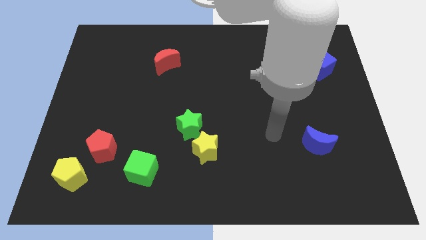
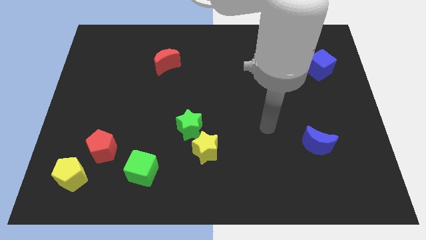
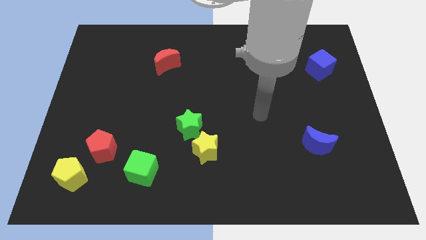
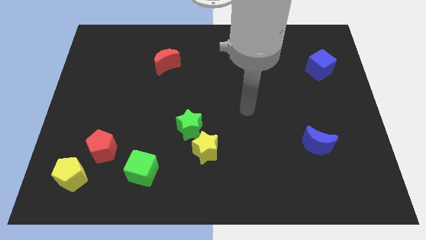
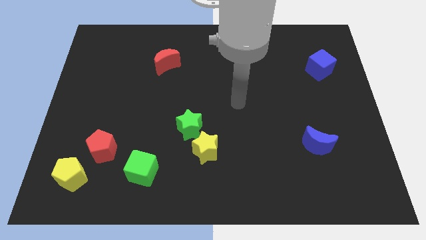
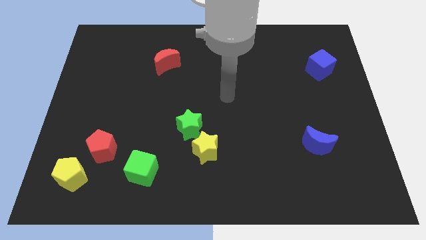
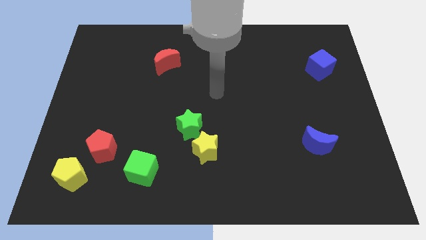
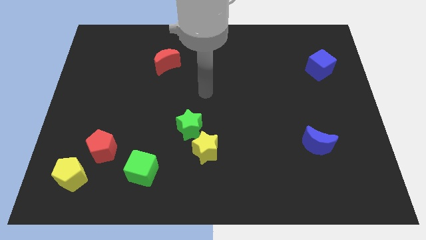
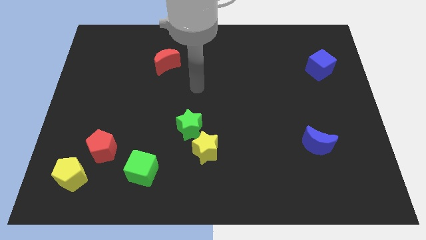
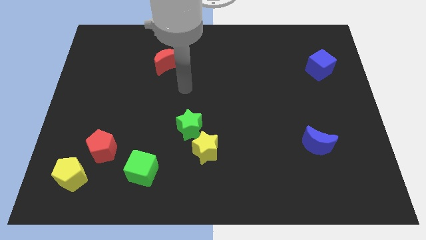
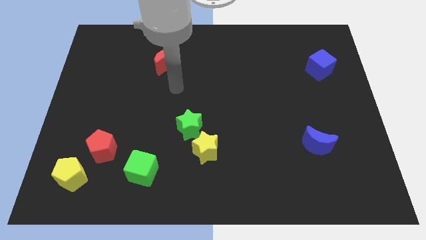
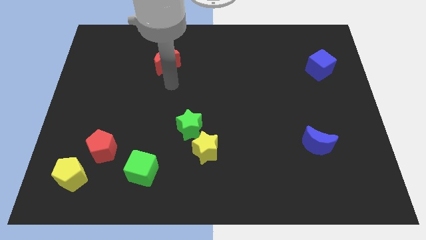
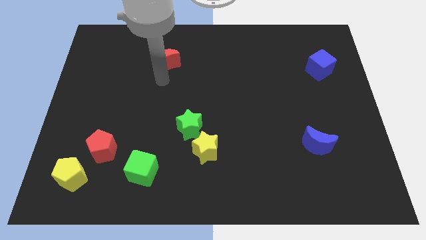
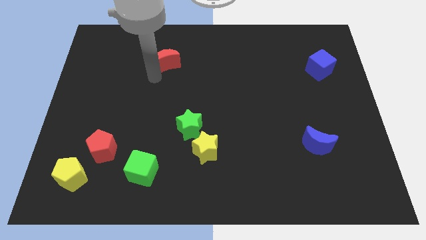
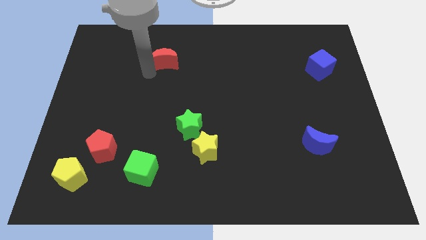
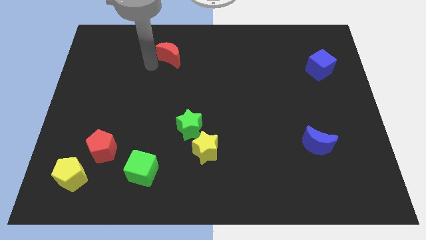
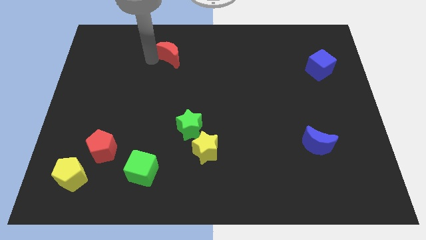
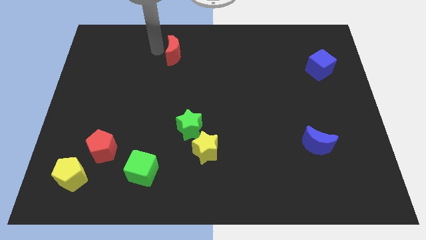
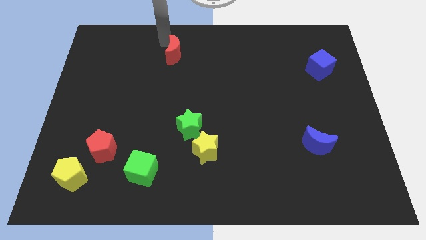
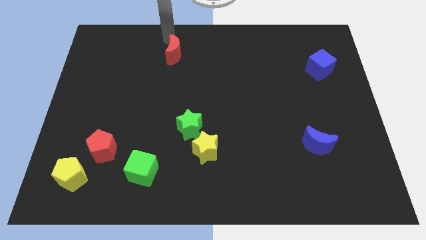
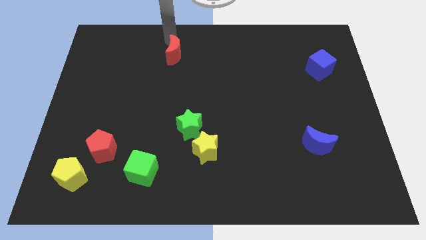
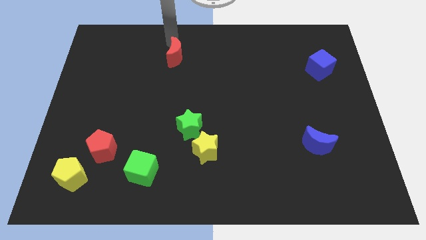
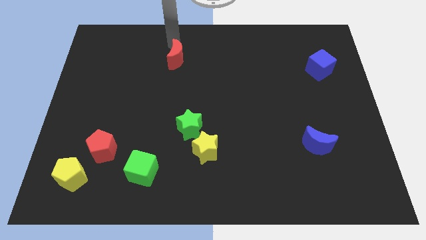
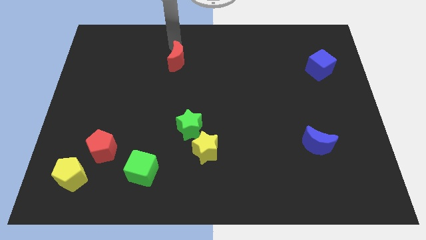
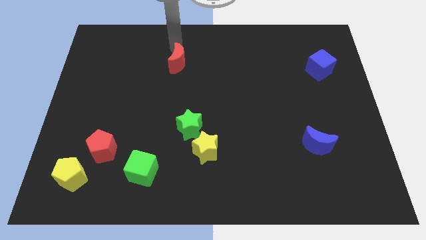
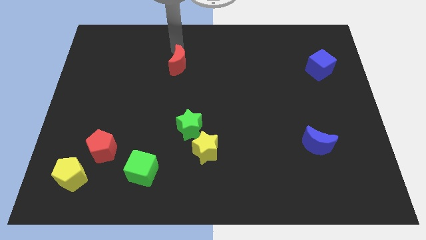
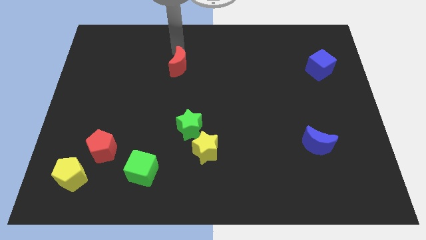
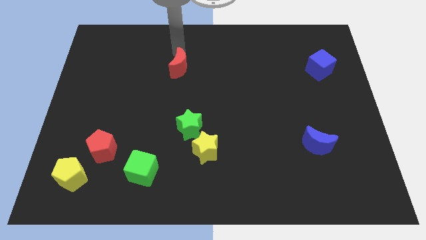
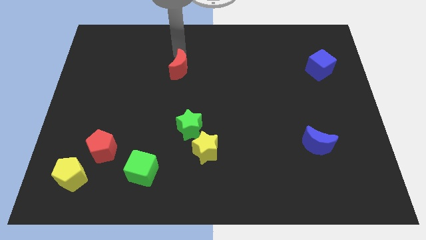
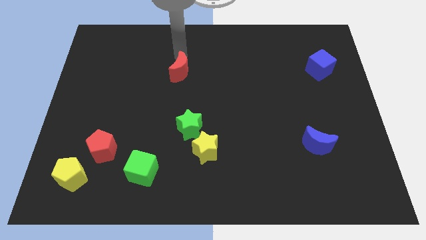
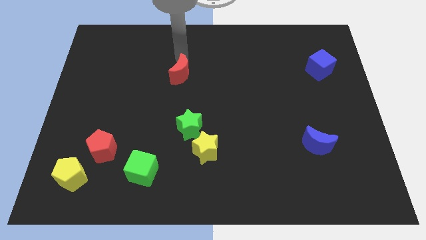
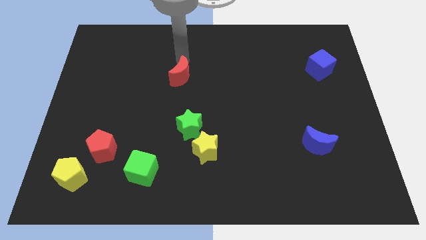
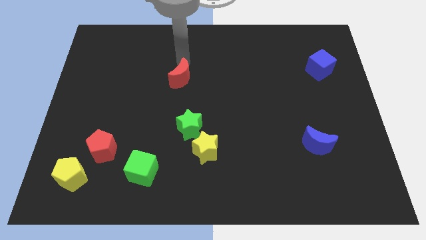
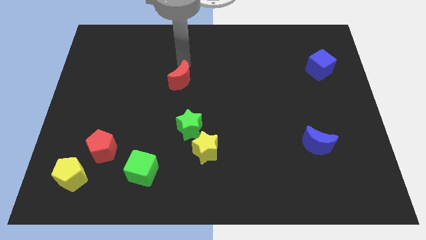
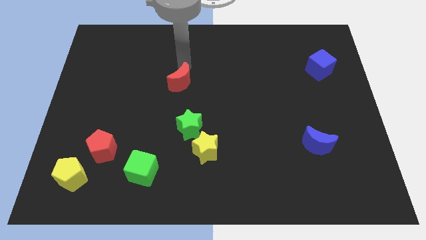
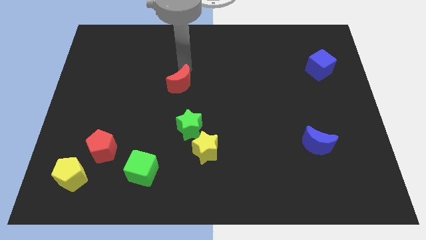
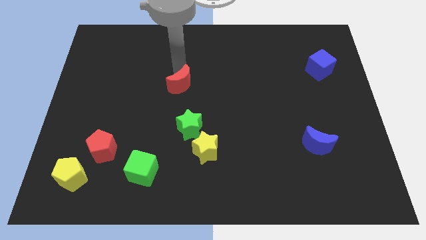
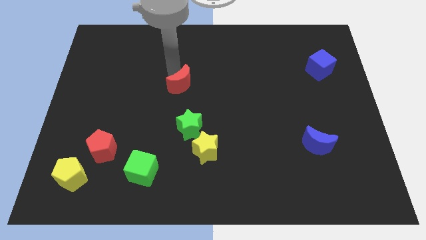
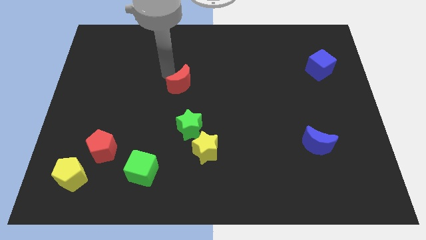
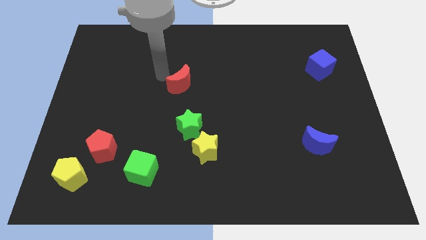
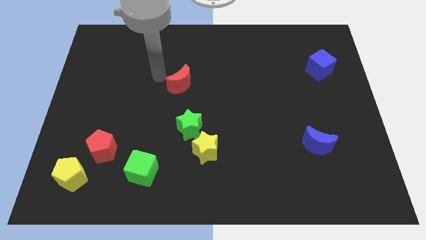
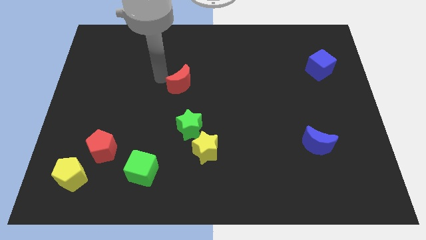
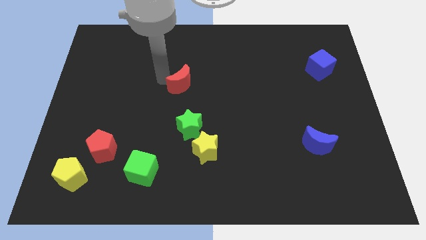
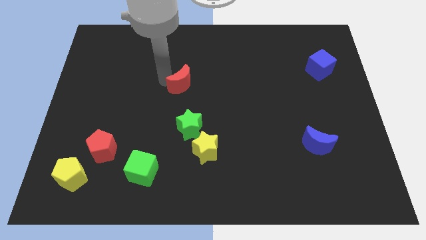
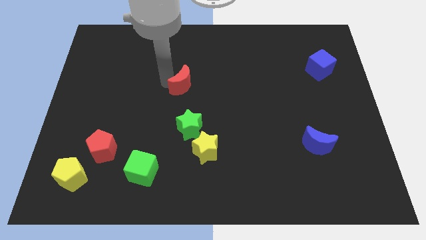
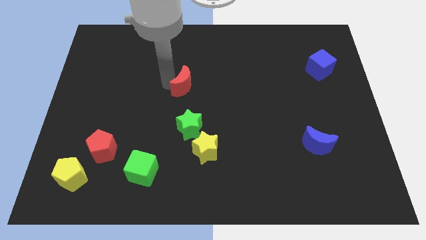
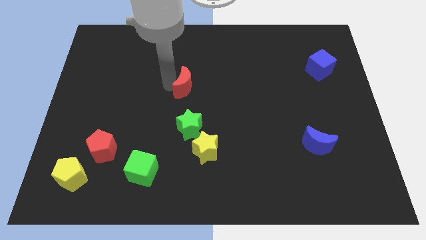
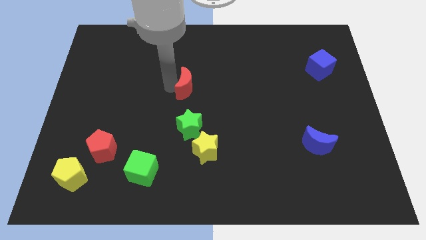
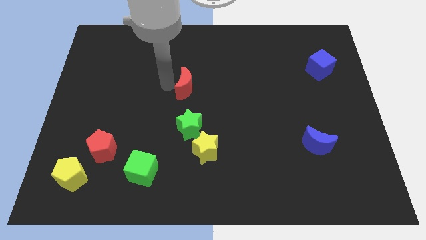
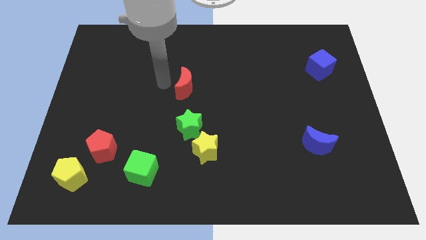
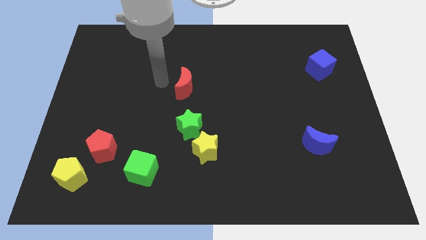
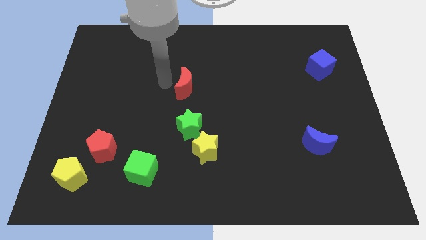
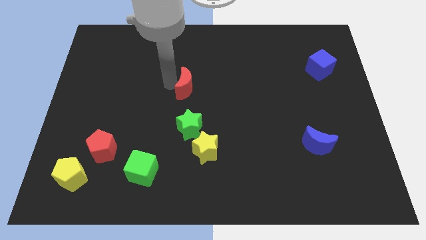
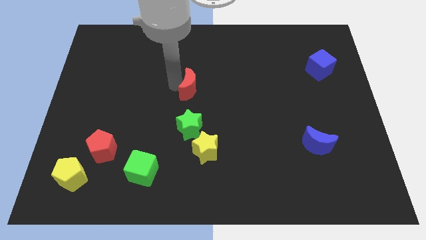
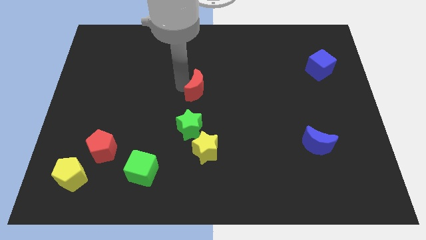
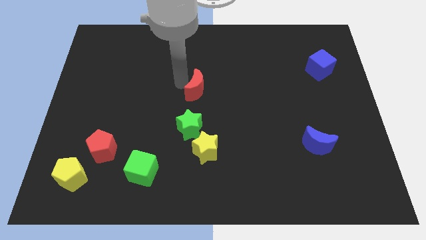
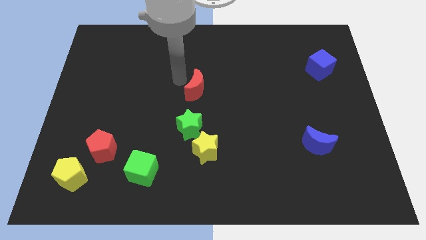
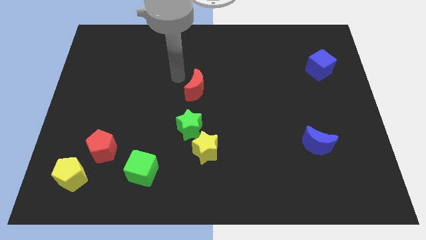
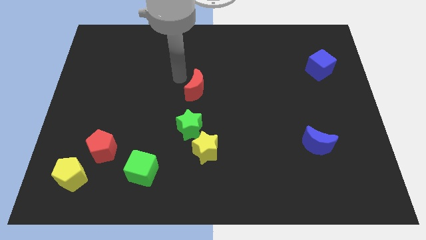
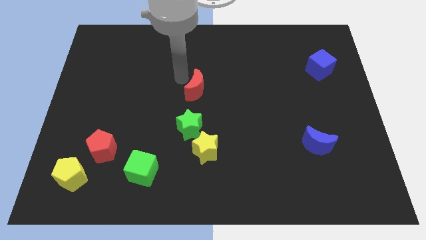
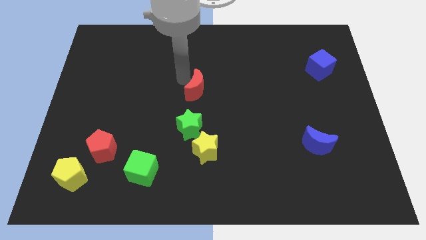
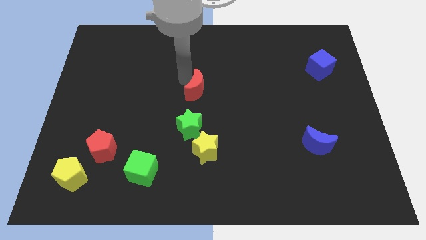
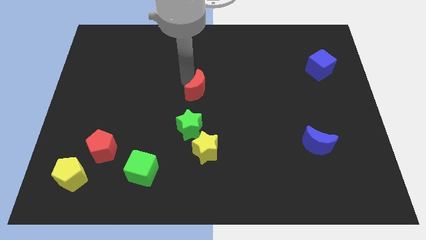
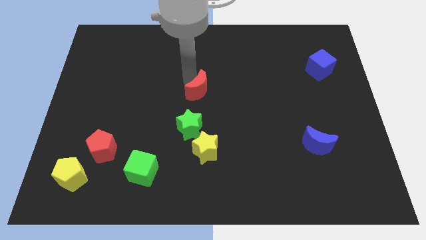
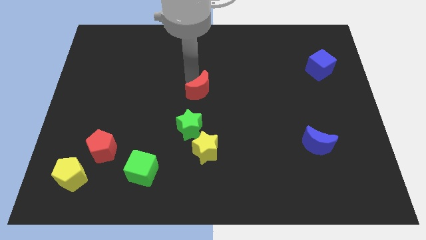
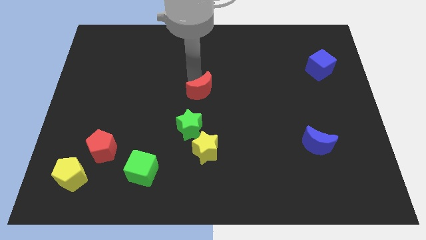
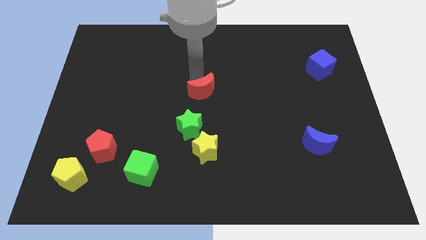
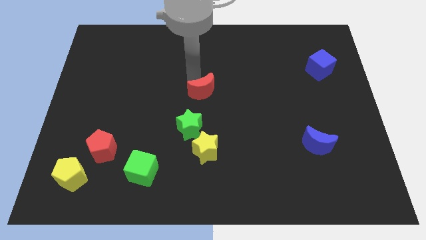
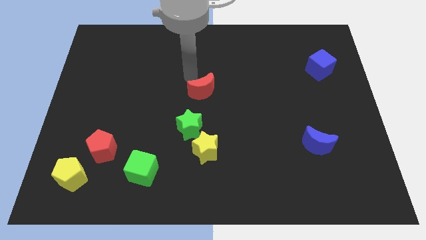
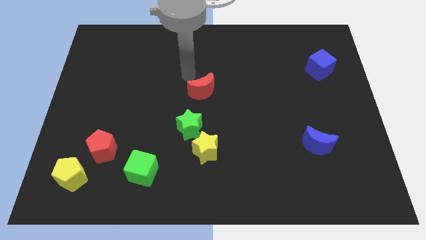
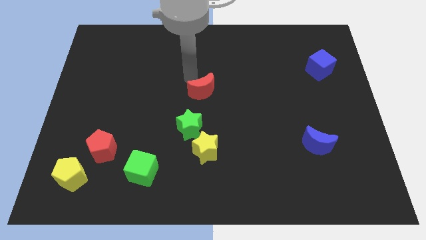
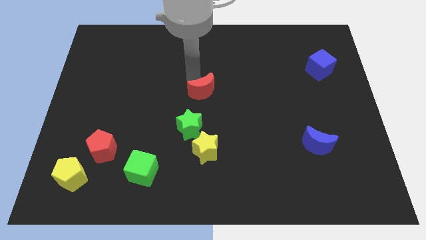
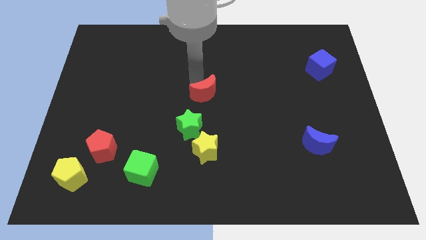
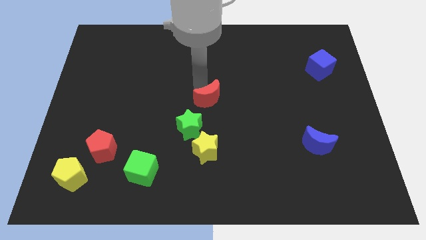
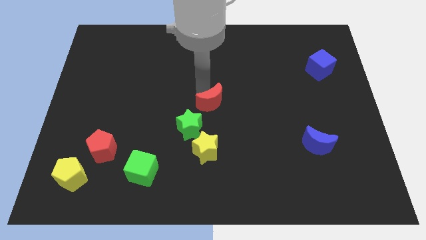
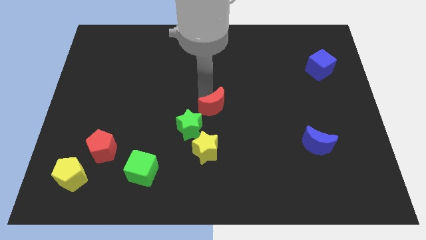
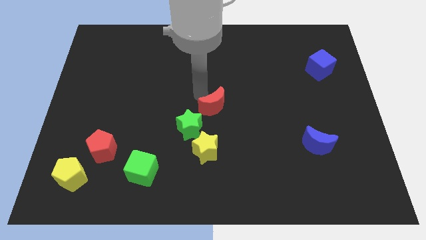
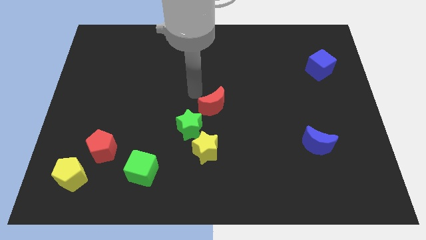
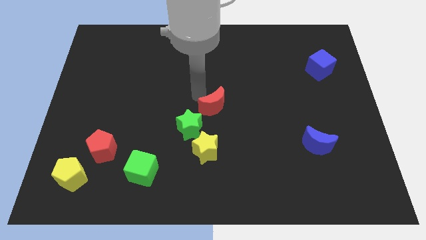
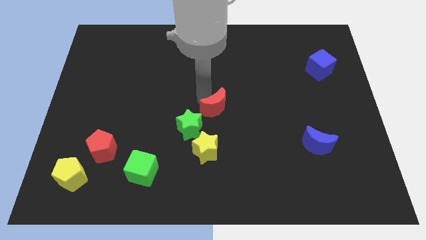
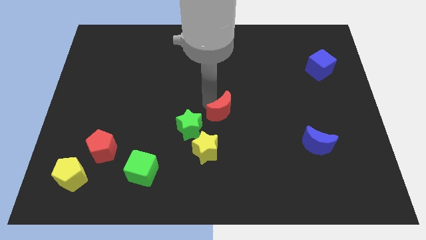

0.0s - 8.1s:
push the red moon diagonally down and to the right
